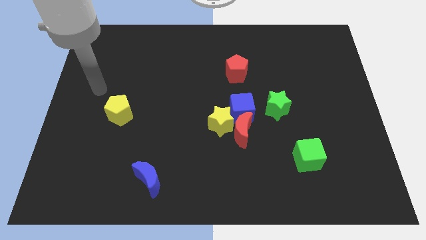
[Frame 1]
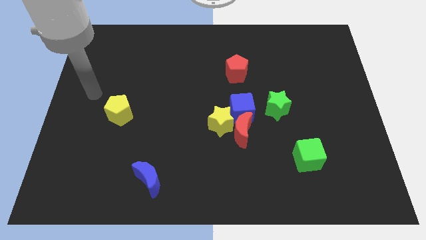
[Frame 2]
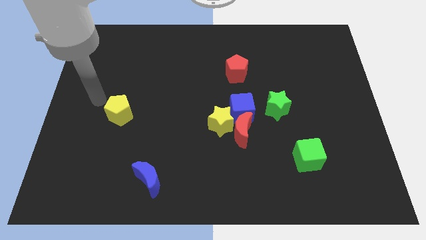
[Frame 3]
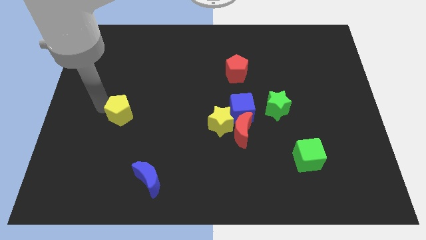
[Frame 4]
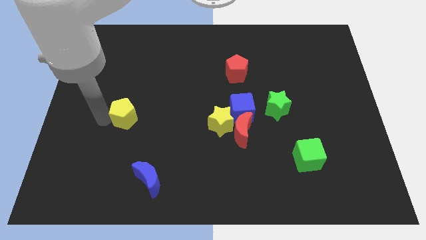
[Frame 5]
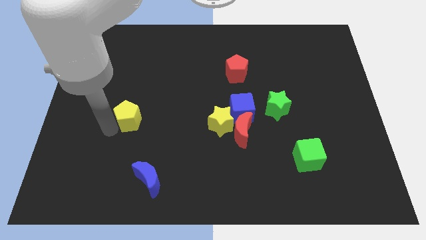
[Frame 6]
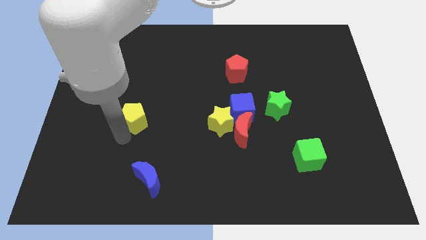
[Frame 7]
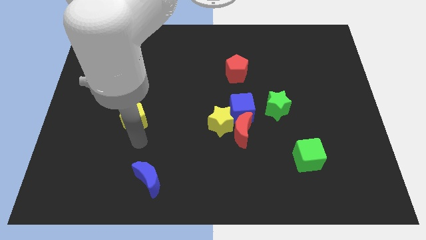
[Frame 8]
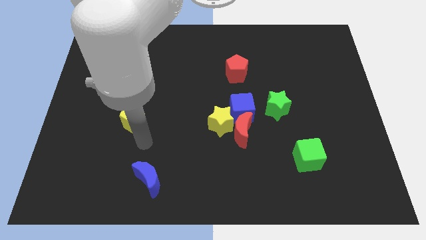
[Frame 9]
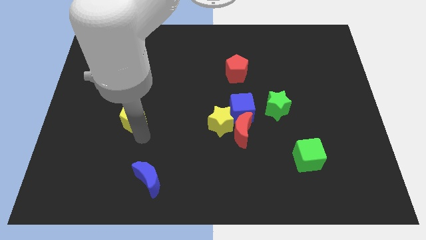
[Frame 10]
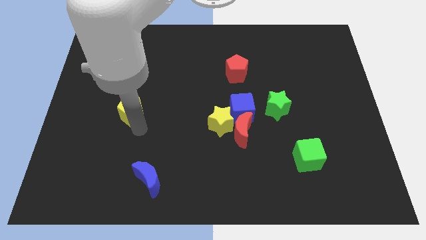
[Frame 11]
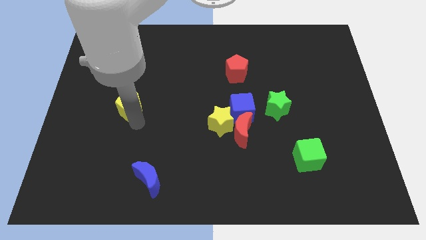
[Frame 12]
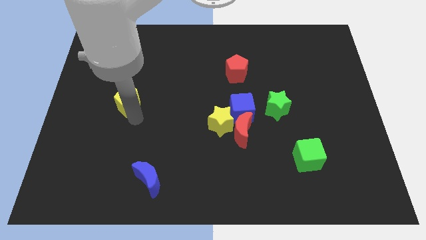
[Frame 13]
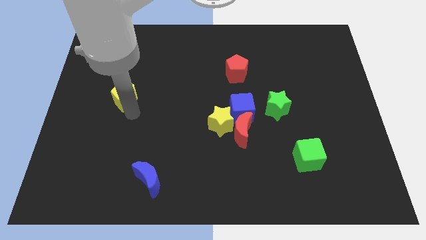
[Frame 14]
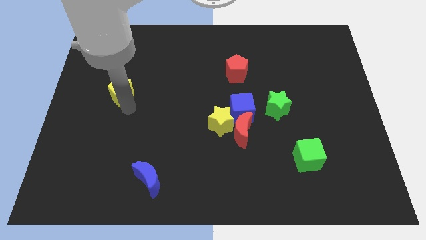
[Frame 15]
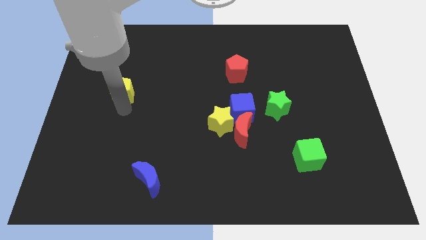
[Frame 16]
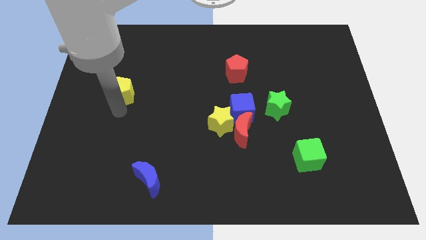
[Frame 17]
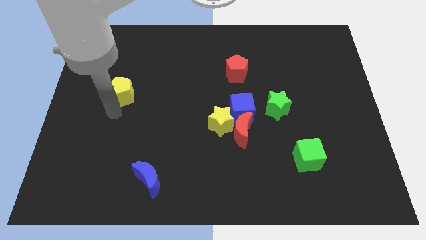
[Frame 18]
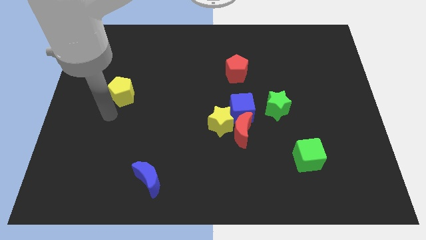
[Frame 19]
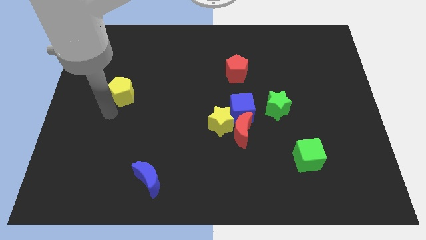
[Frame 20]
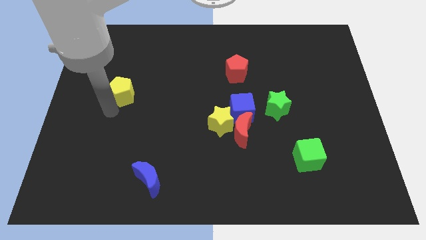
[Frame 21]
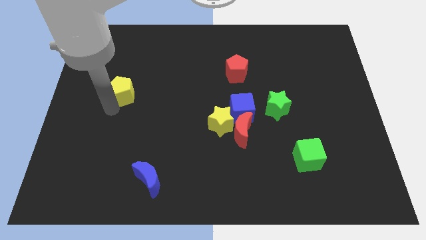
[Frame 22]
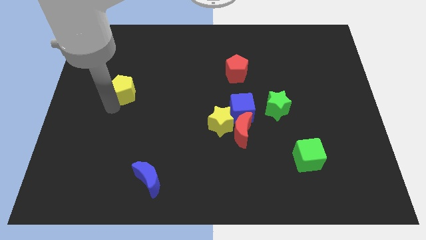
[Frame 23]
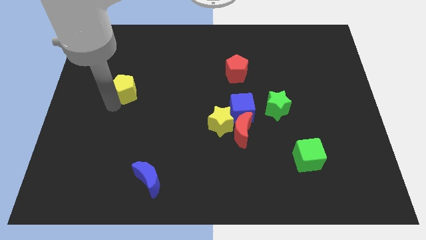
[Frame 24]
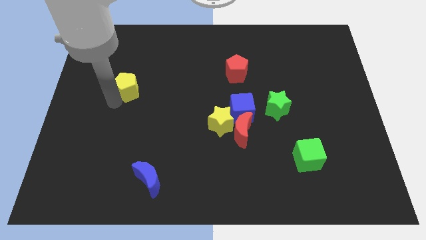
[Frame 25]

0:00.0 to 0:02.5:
move the yellow pentagon upwards a bit

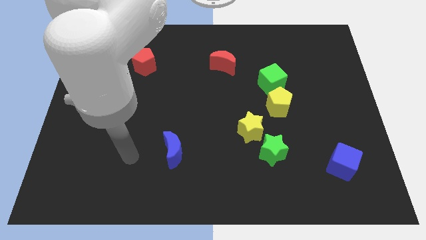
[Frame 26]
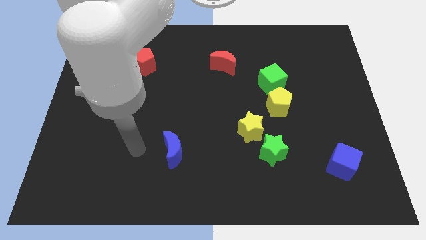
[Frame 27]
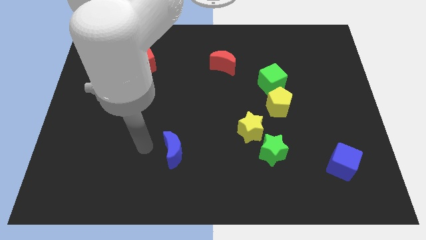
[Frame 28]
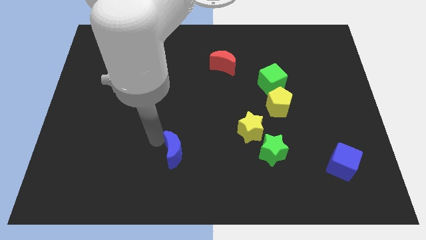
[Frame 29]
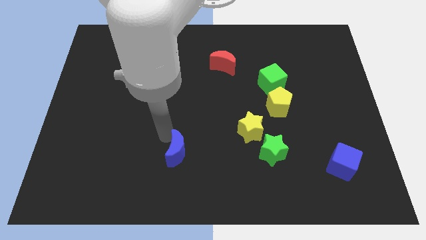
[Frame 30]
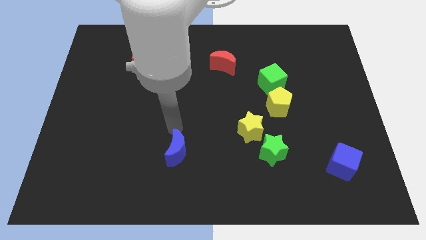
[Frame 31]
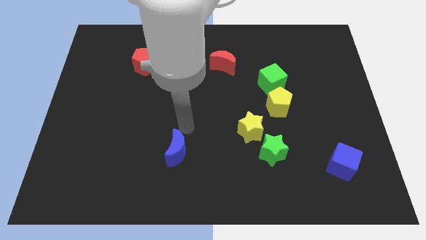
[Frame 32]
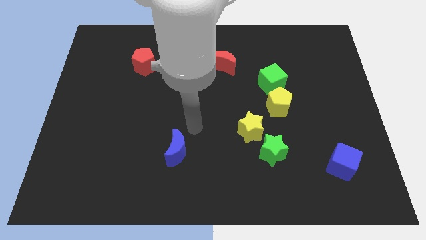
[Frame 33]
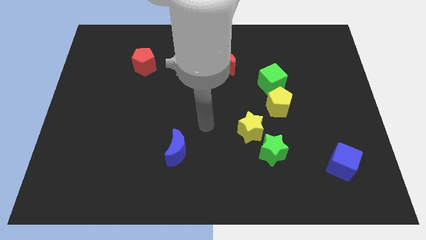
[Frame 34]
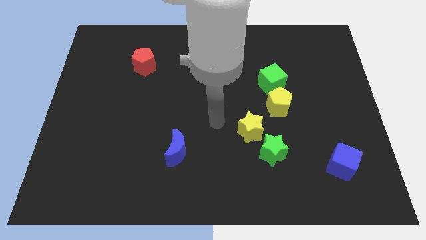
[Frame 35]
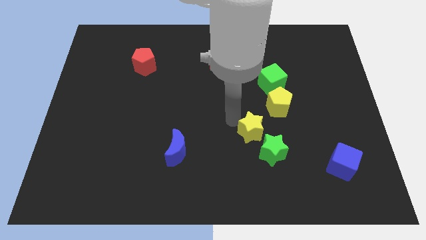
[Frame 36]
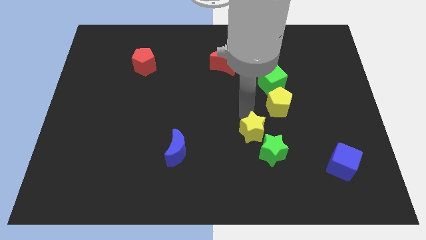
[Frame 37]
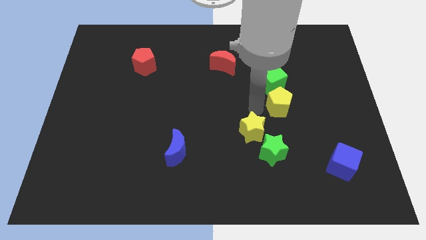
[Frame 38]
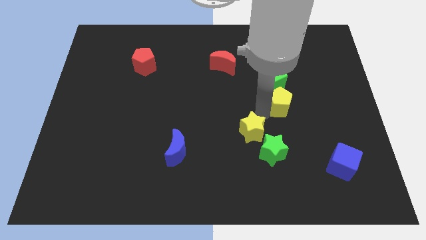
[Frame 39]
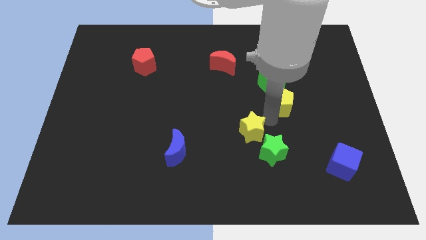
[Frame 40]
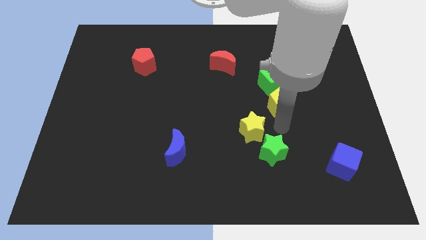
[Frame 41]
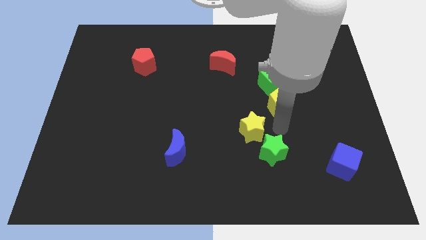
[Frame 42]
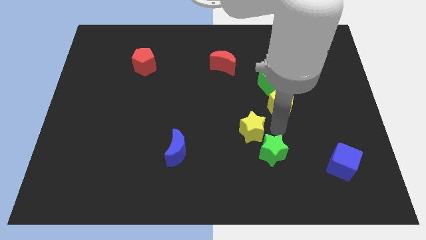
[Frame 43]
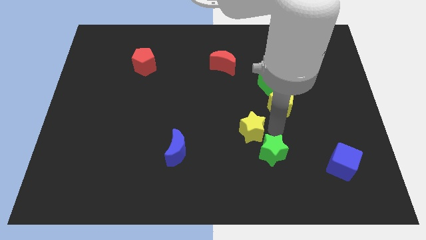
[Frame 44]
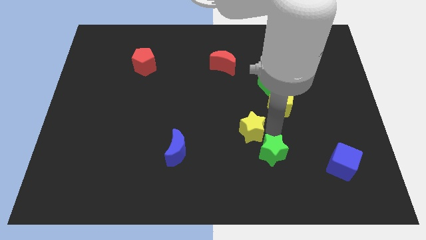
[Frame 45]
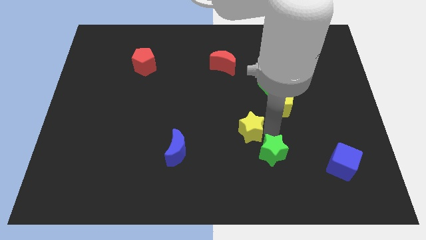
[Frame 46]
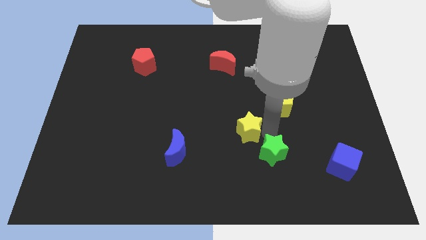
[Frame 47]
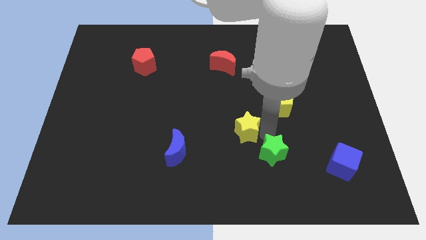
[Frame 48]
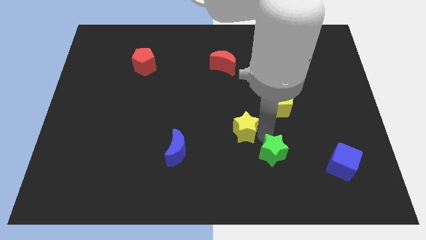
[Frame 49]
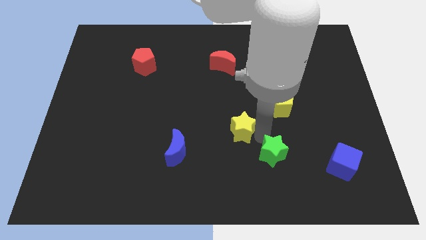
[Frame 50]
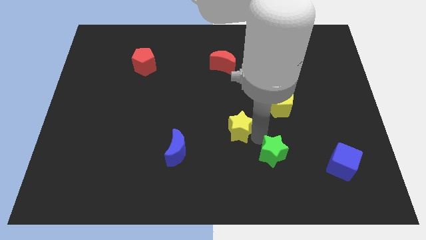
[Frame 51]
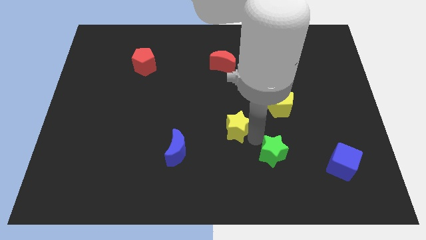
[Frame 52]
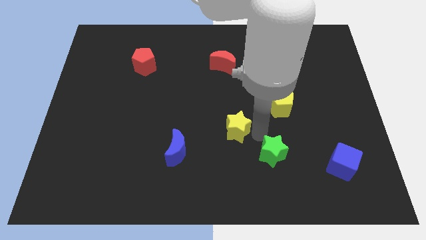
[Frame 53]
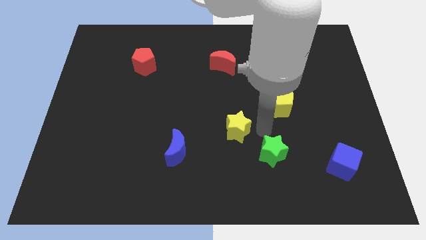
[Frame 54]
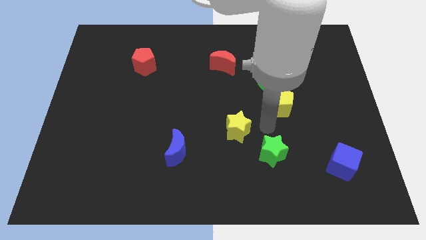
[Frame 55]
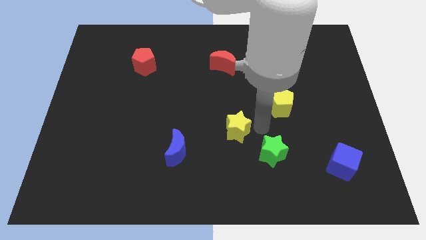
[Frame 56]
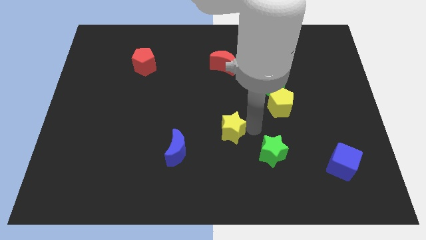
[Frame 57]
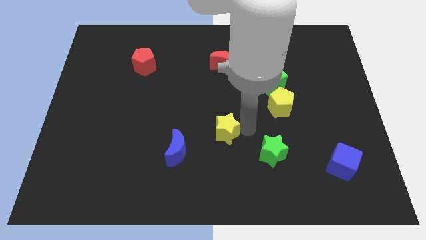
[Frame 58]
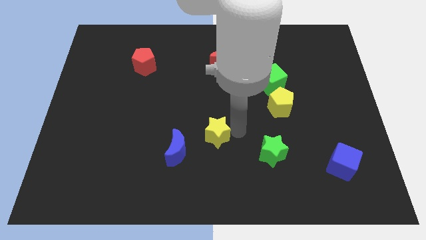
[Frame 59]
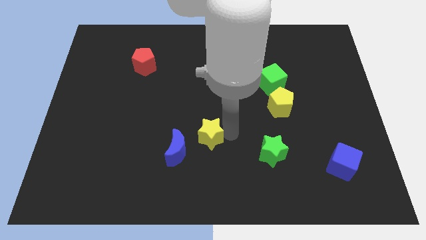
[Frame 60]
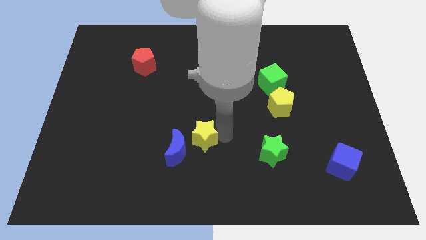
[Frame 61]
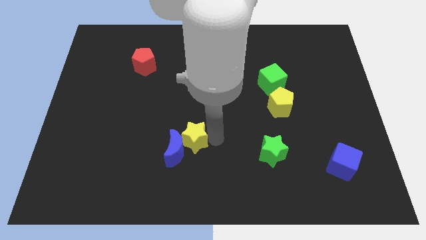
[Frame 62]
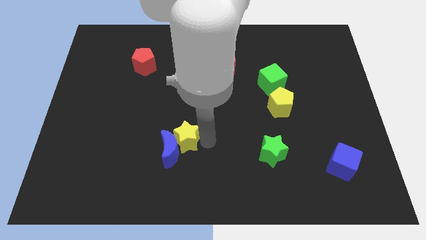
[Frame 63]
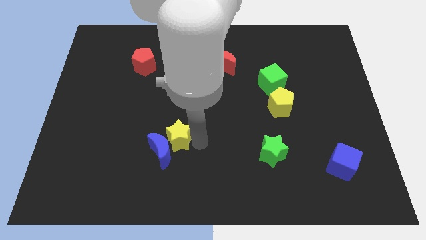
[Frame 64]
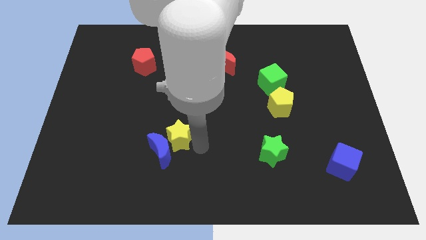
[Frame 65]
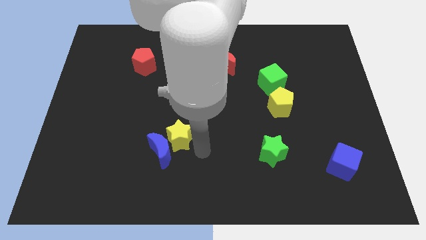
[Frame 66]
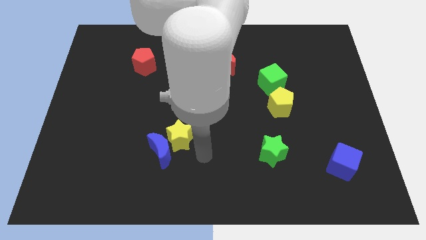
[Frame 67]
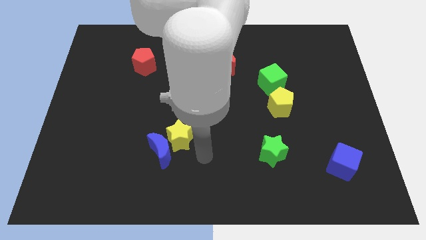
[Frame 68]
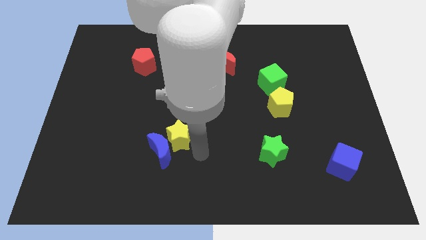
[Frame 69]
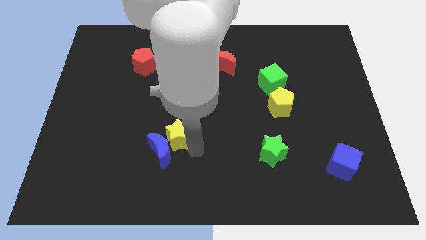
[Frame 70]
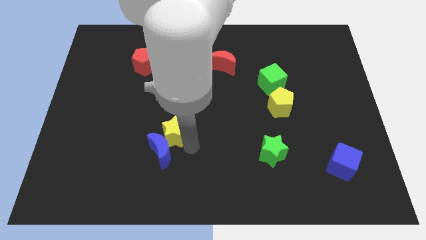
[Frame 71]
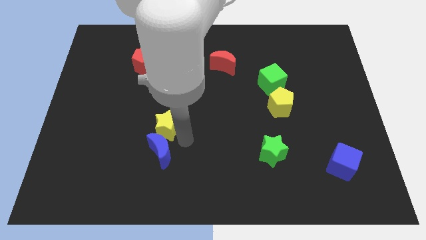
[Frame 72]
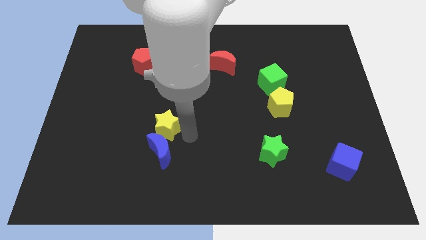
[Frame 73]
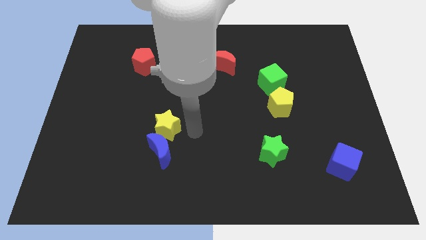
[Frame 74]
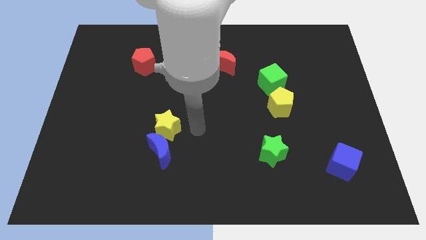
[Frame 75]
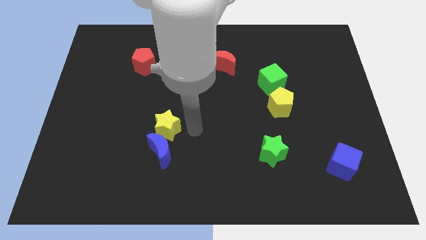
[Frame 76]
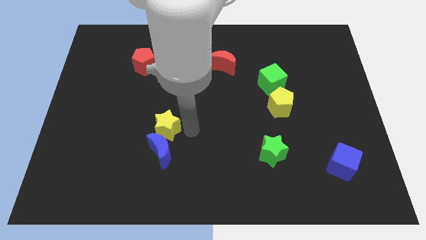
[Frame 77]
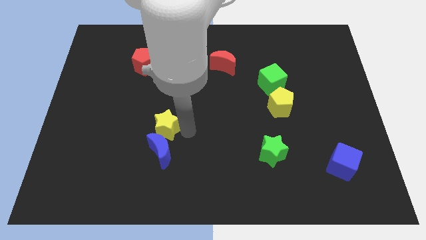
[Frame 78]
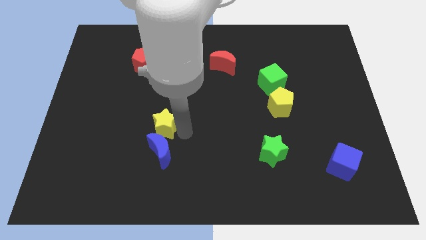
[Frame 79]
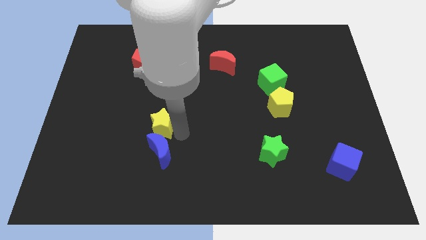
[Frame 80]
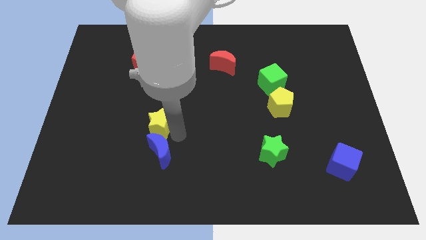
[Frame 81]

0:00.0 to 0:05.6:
move the yellow star to the left
